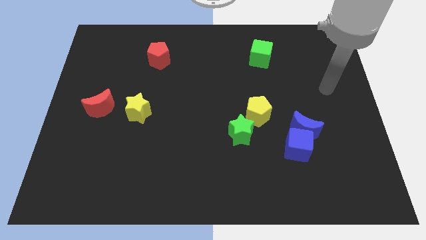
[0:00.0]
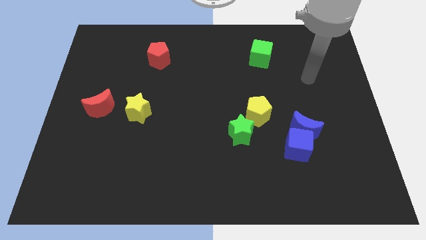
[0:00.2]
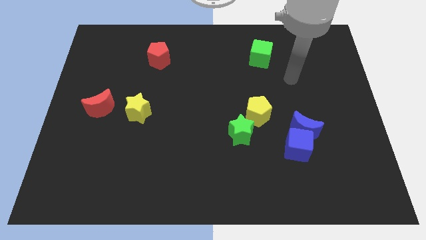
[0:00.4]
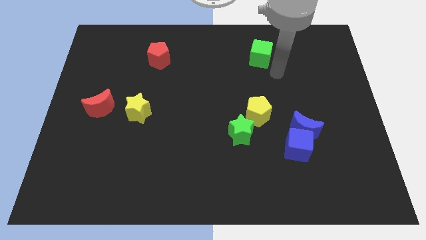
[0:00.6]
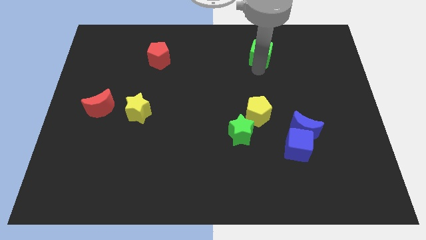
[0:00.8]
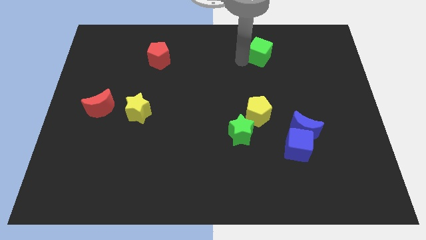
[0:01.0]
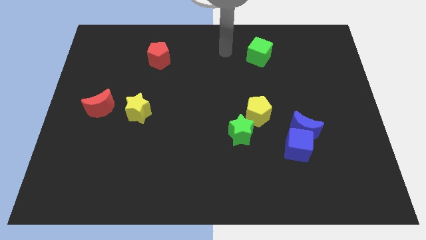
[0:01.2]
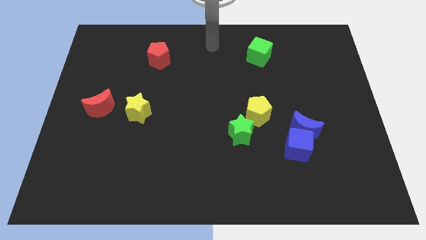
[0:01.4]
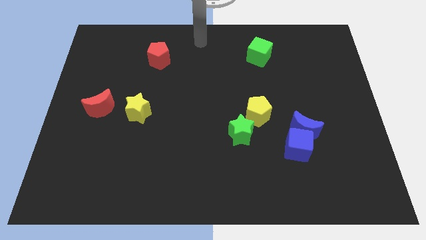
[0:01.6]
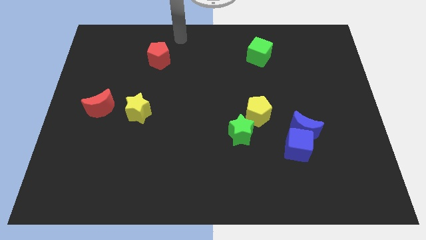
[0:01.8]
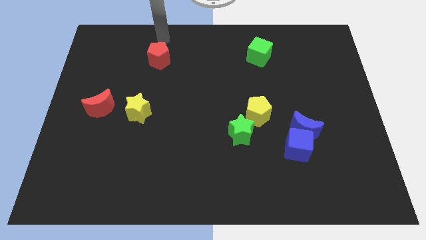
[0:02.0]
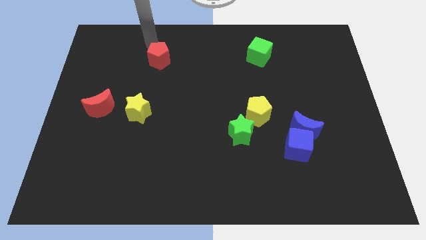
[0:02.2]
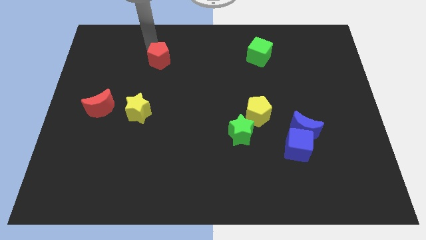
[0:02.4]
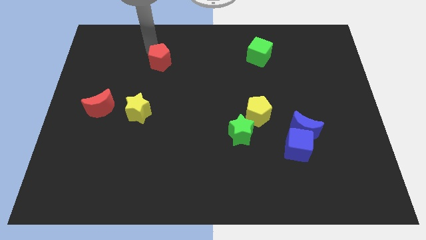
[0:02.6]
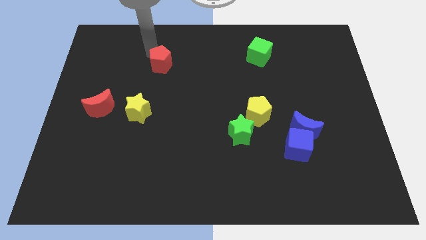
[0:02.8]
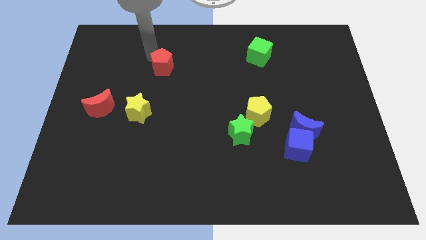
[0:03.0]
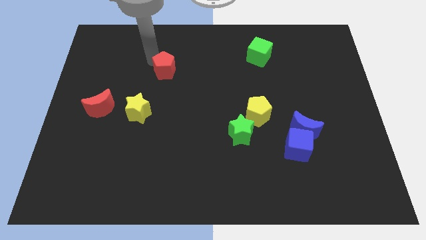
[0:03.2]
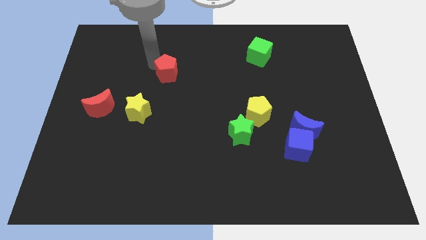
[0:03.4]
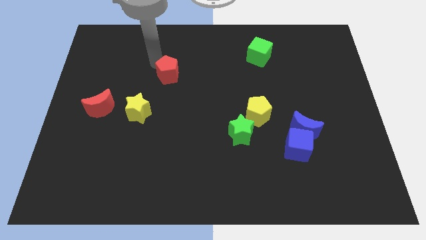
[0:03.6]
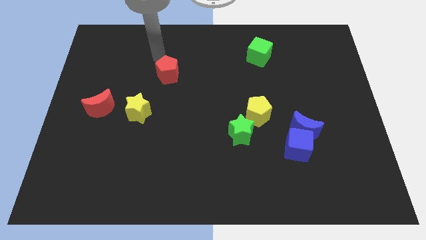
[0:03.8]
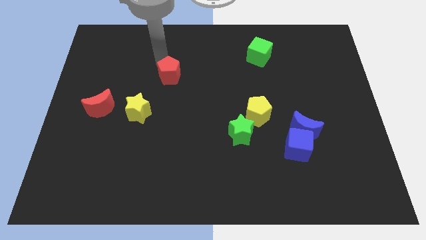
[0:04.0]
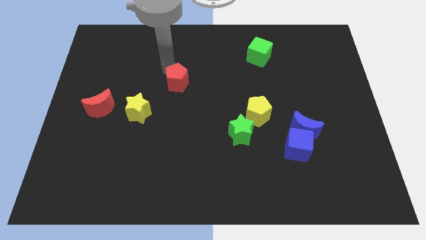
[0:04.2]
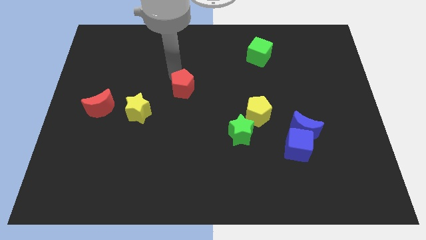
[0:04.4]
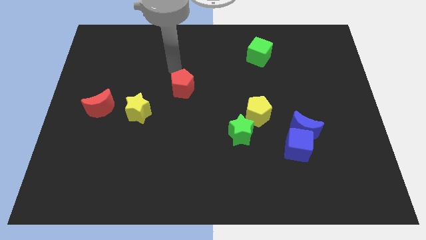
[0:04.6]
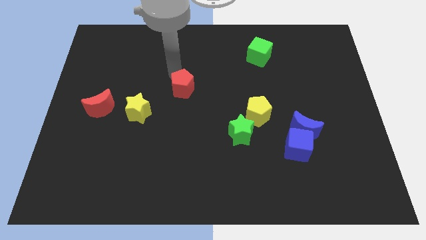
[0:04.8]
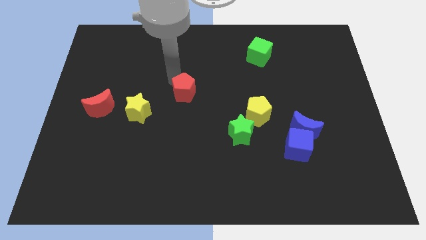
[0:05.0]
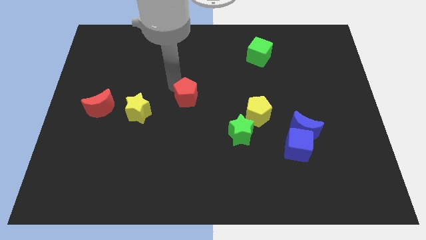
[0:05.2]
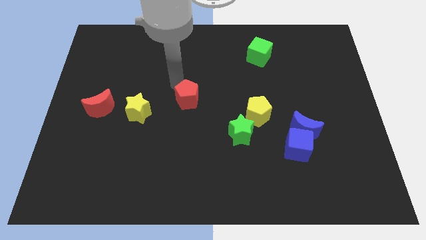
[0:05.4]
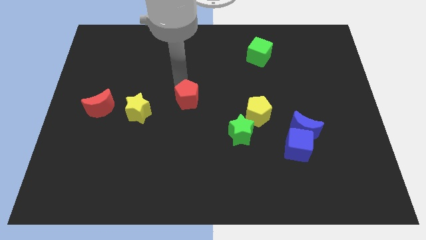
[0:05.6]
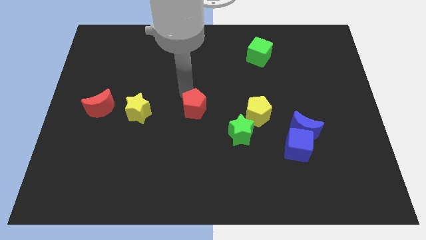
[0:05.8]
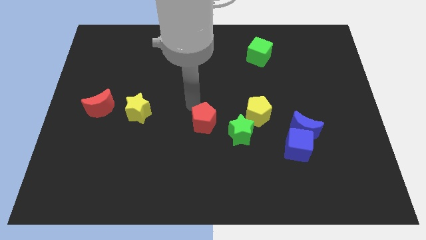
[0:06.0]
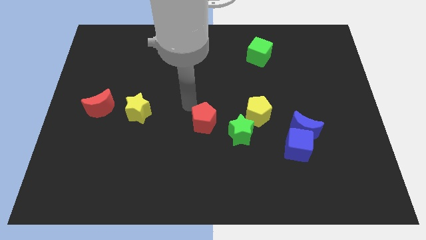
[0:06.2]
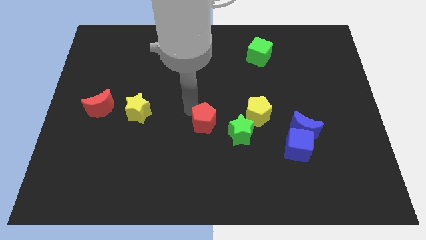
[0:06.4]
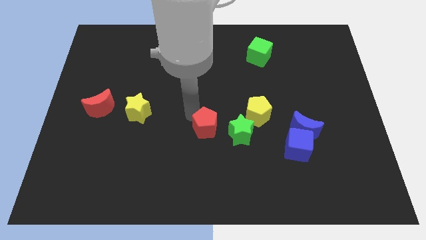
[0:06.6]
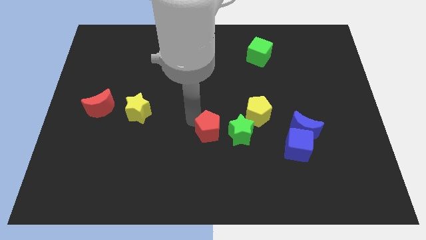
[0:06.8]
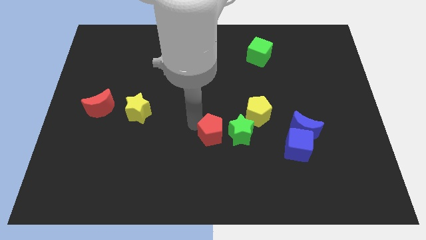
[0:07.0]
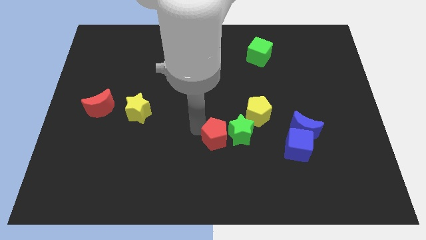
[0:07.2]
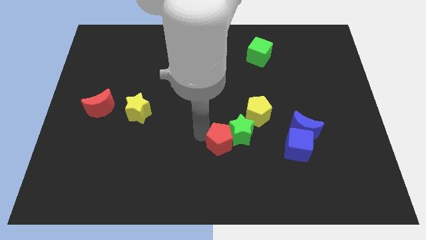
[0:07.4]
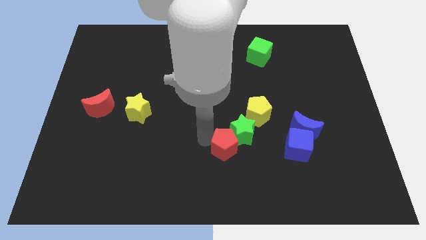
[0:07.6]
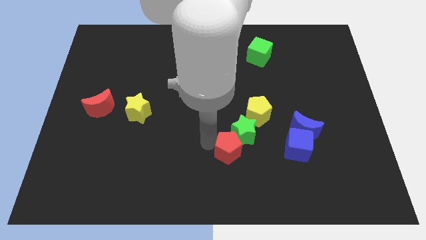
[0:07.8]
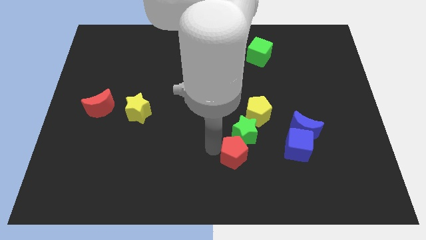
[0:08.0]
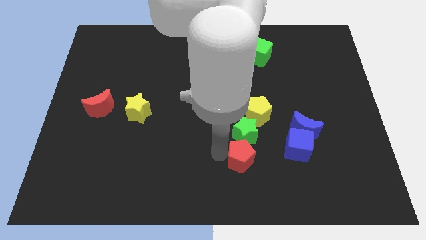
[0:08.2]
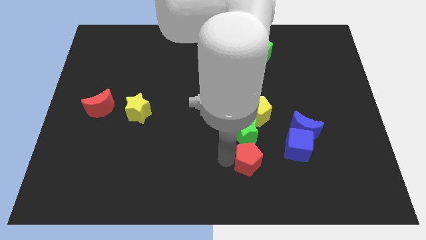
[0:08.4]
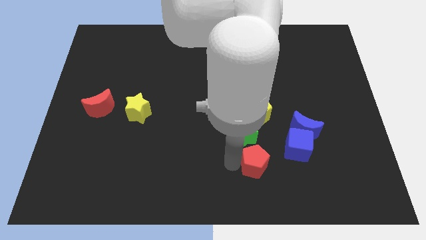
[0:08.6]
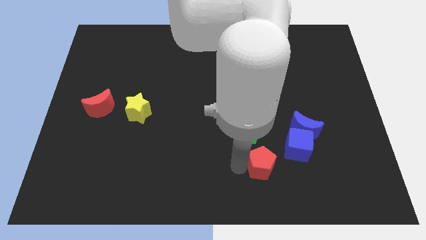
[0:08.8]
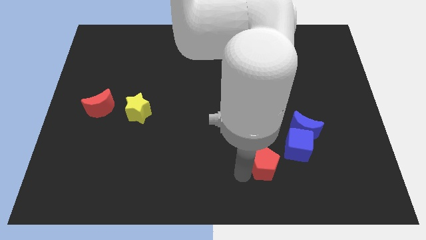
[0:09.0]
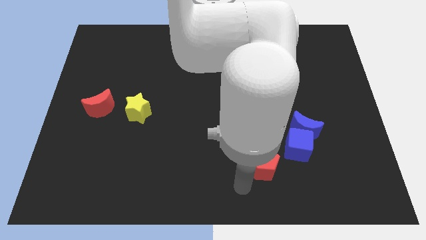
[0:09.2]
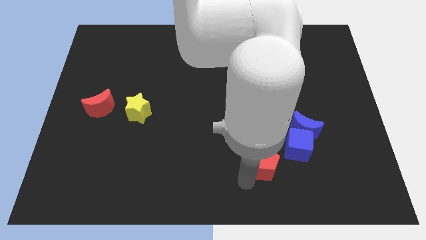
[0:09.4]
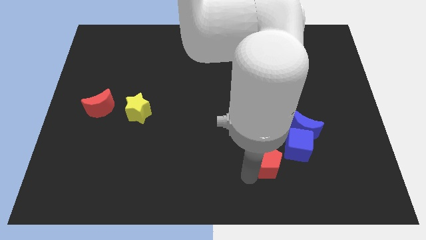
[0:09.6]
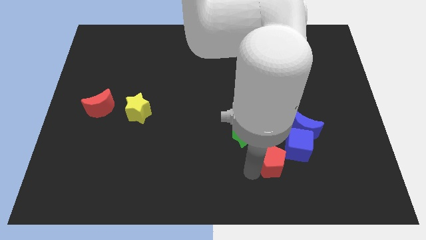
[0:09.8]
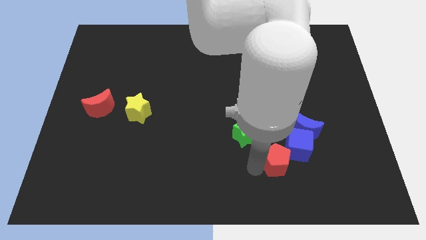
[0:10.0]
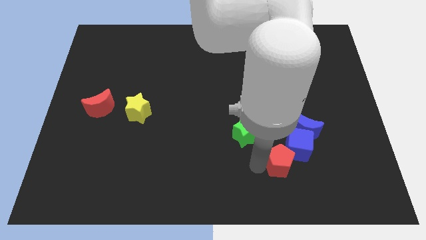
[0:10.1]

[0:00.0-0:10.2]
move the red pentagon next to the blue cube

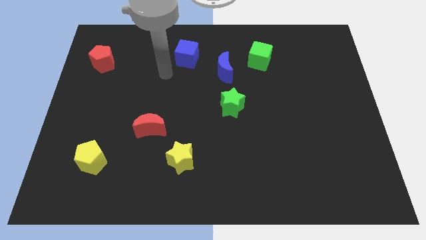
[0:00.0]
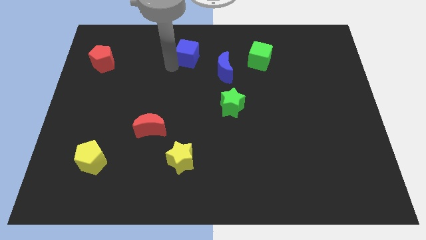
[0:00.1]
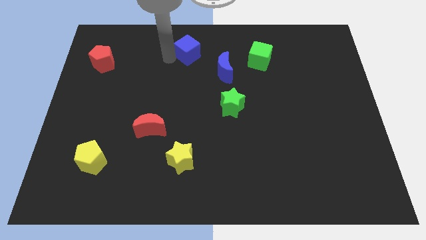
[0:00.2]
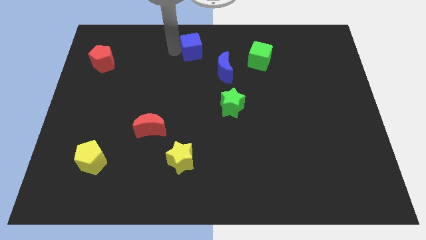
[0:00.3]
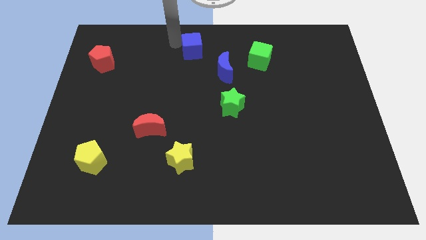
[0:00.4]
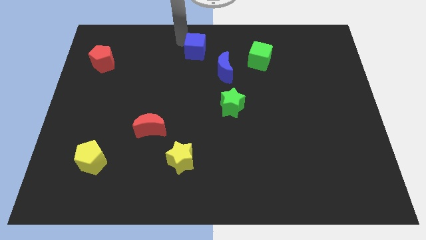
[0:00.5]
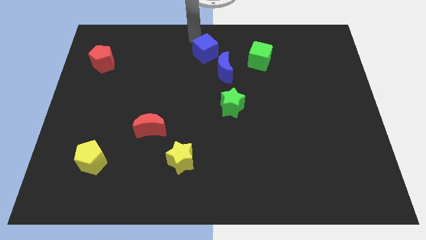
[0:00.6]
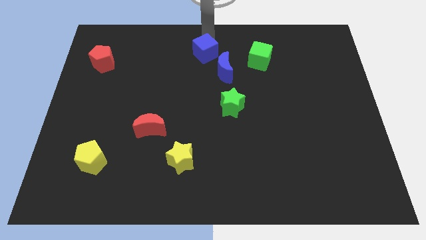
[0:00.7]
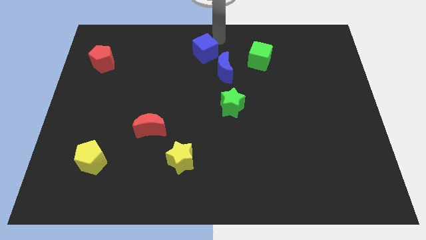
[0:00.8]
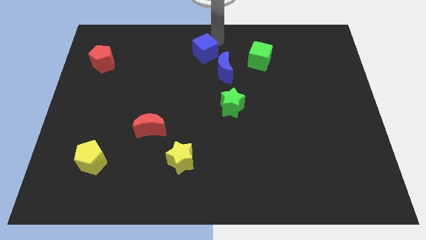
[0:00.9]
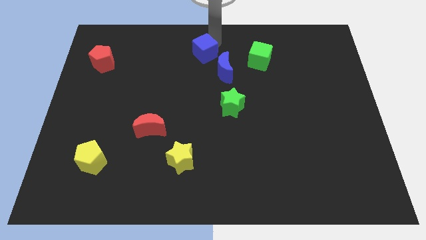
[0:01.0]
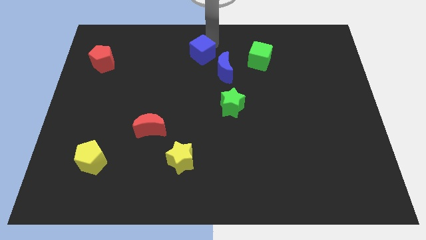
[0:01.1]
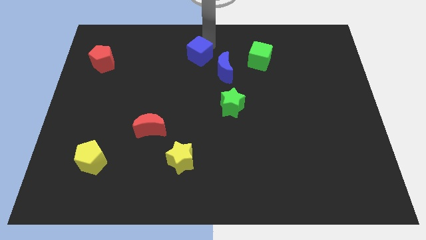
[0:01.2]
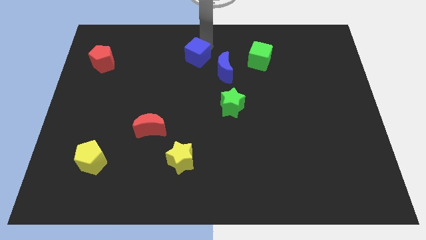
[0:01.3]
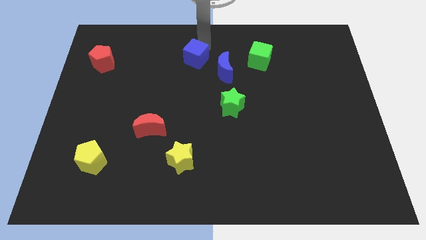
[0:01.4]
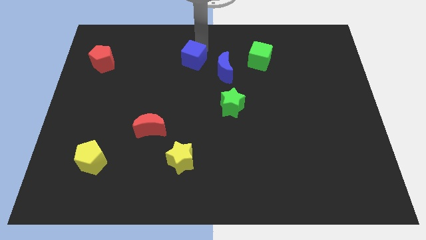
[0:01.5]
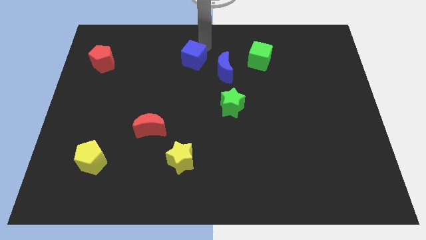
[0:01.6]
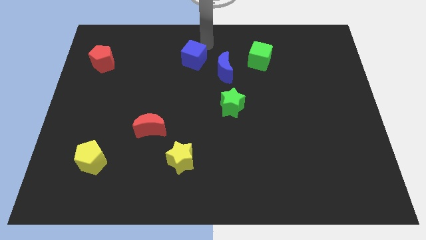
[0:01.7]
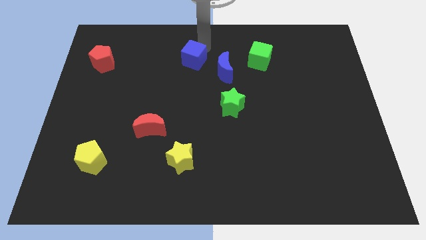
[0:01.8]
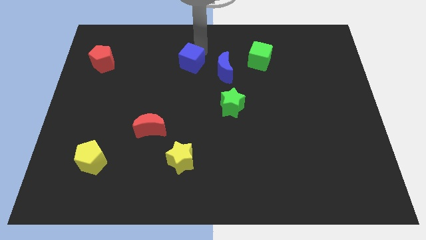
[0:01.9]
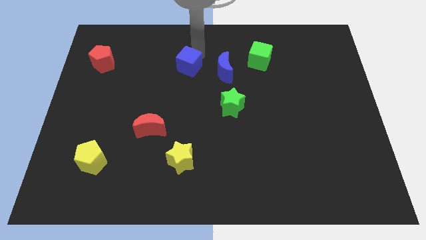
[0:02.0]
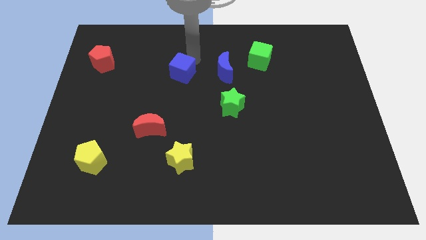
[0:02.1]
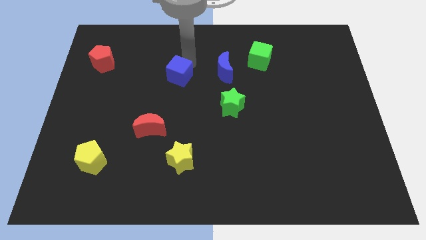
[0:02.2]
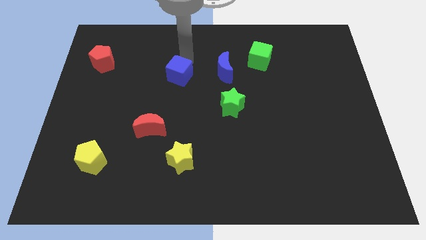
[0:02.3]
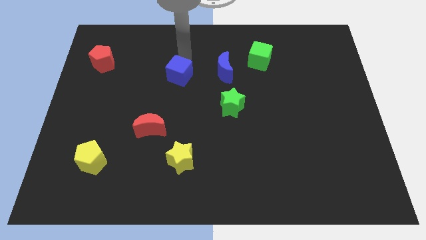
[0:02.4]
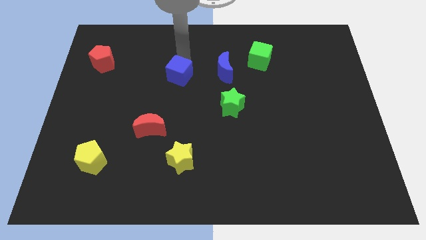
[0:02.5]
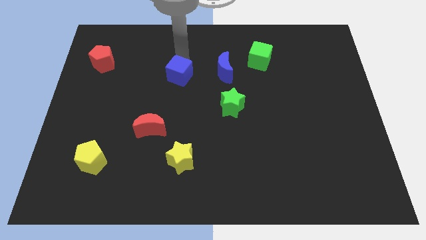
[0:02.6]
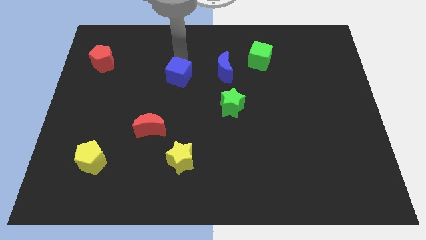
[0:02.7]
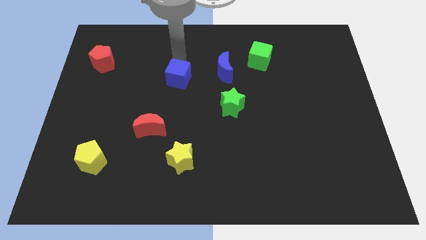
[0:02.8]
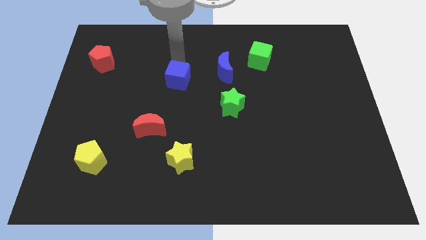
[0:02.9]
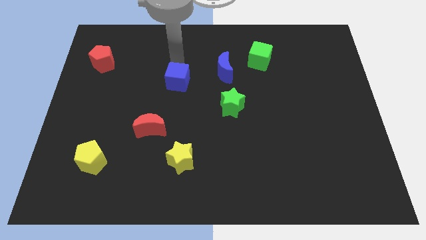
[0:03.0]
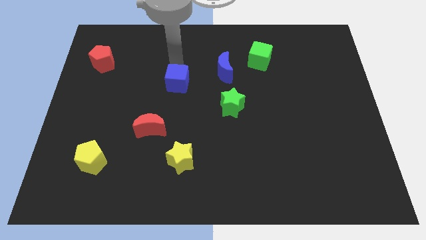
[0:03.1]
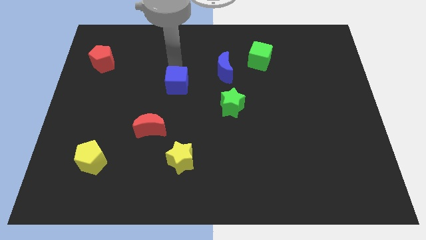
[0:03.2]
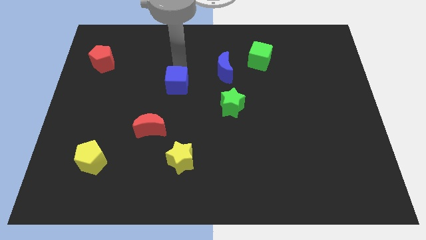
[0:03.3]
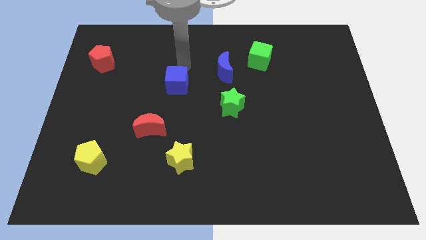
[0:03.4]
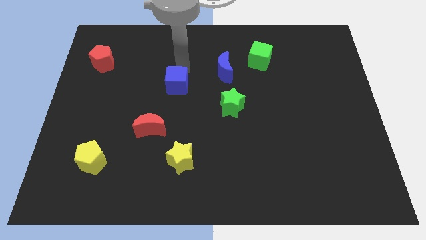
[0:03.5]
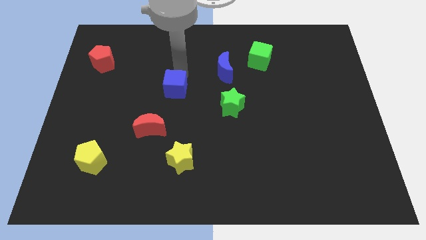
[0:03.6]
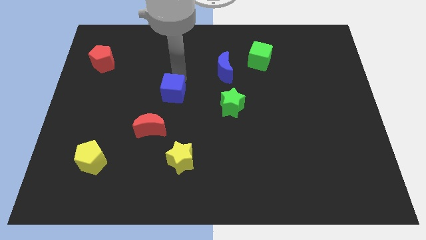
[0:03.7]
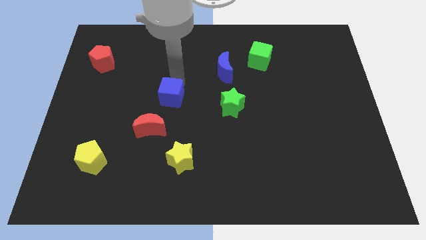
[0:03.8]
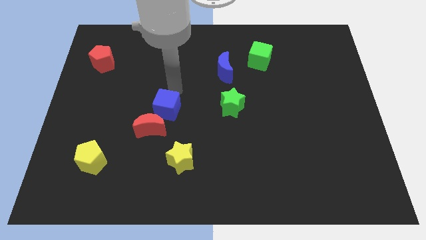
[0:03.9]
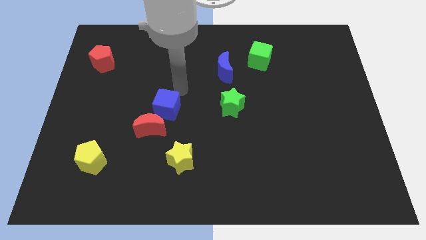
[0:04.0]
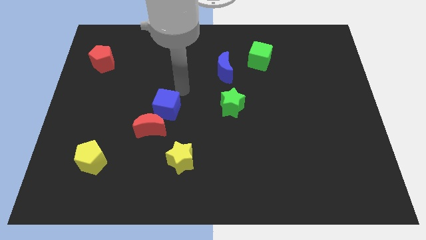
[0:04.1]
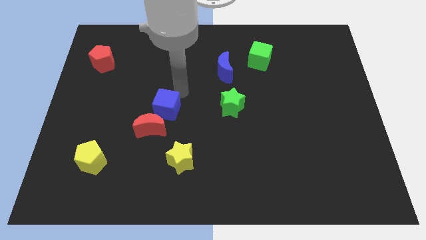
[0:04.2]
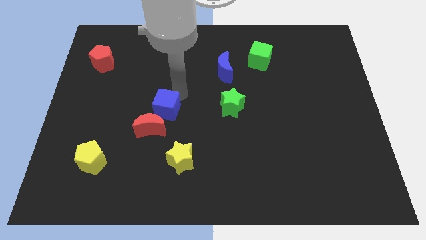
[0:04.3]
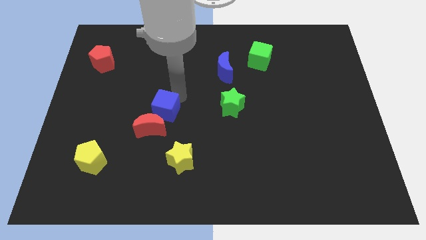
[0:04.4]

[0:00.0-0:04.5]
move the blue cube to the red moon
